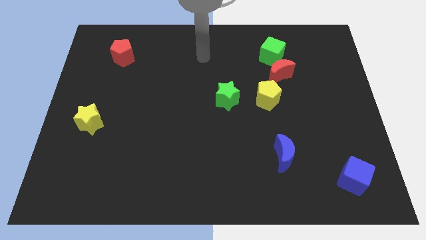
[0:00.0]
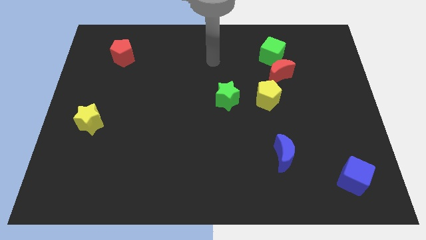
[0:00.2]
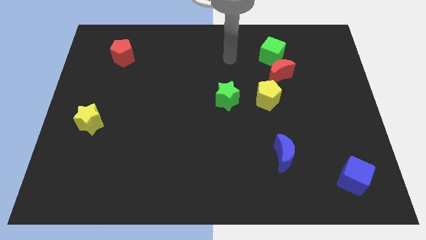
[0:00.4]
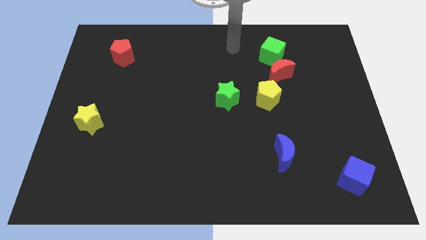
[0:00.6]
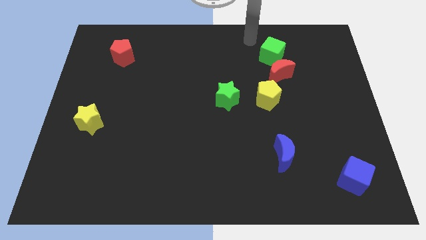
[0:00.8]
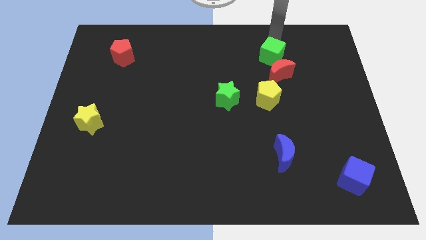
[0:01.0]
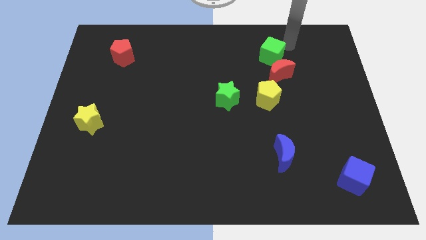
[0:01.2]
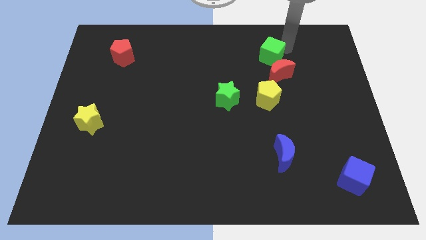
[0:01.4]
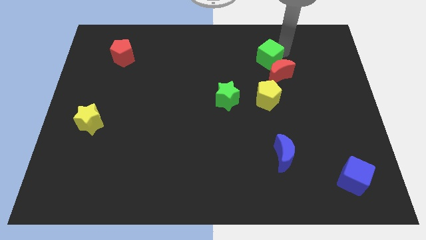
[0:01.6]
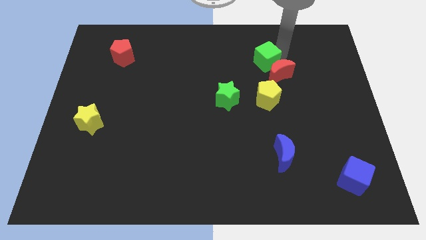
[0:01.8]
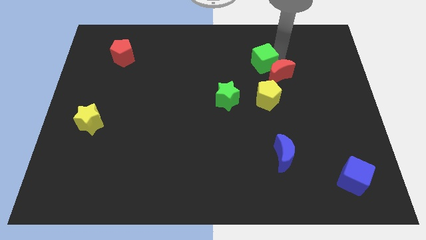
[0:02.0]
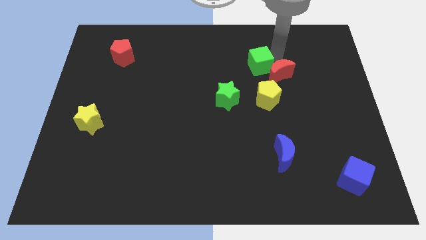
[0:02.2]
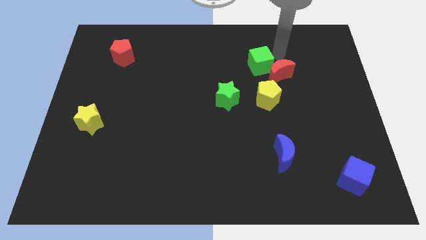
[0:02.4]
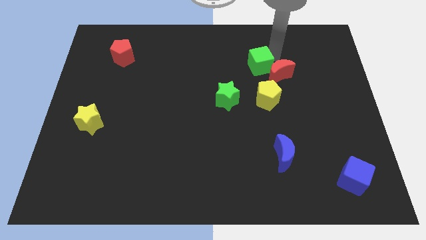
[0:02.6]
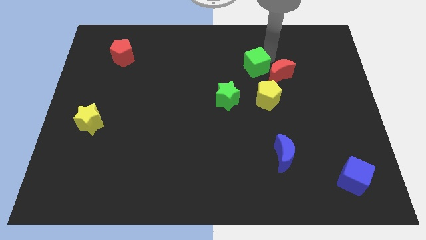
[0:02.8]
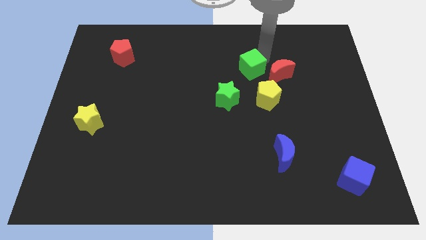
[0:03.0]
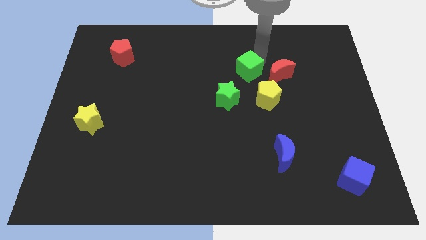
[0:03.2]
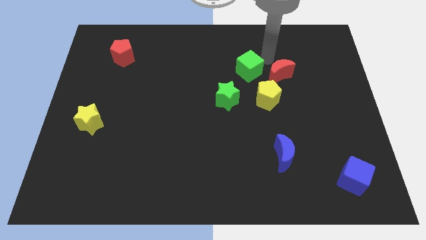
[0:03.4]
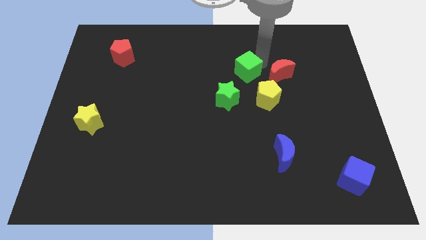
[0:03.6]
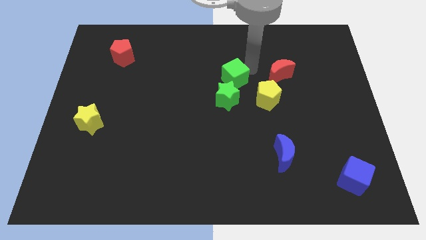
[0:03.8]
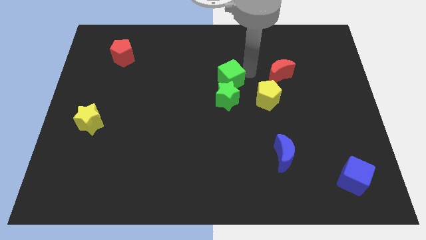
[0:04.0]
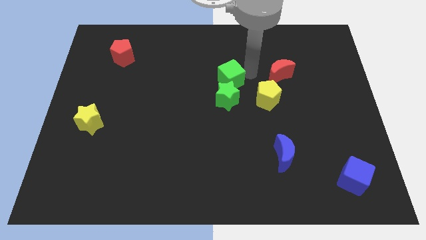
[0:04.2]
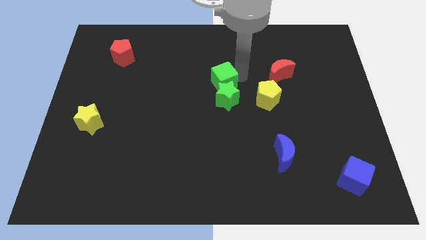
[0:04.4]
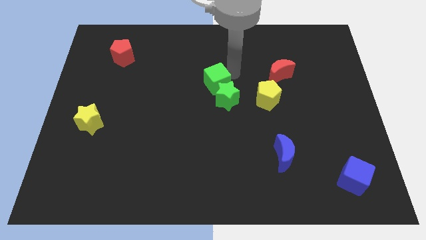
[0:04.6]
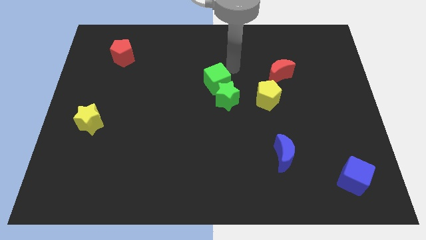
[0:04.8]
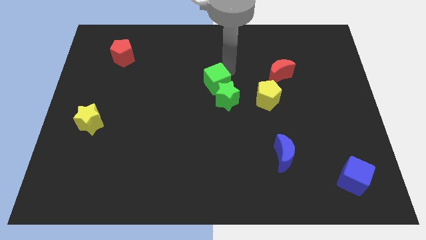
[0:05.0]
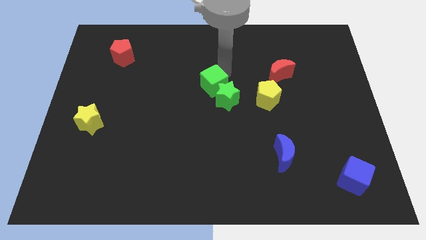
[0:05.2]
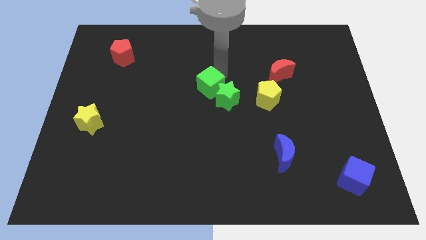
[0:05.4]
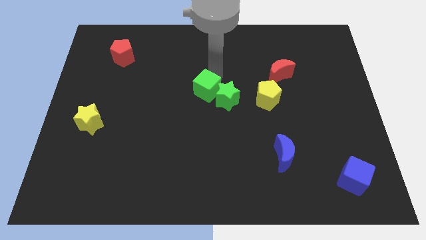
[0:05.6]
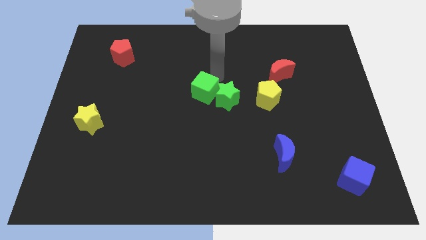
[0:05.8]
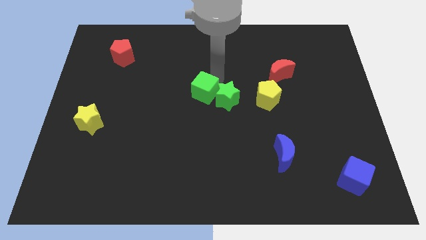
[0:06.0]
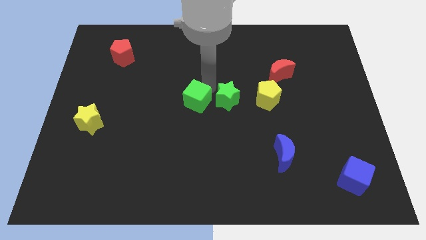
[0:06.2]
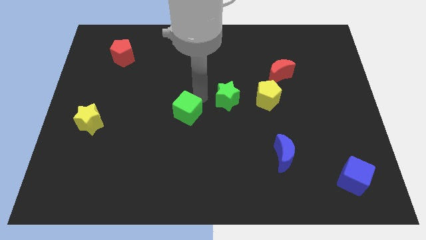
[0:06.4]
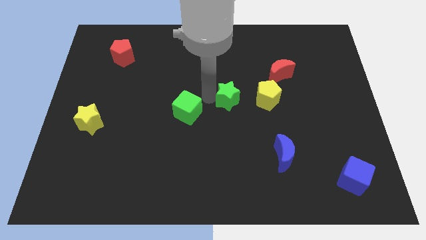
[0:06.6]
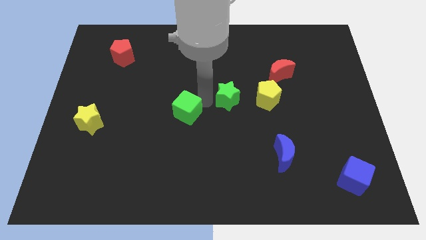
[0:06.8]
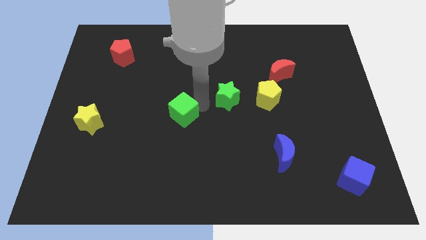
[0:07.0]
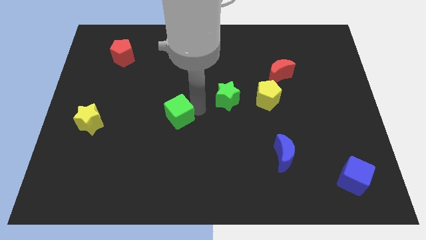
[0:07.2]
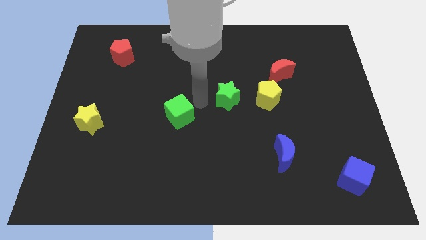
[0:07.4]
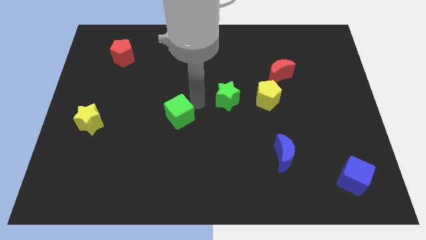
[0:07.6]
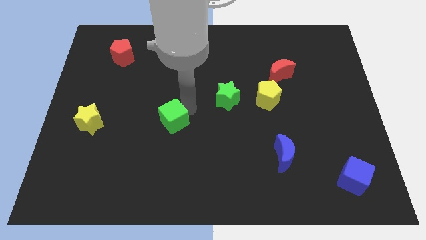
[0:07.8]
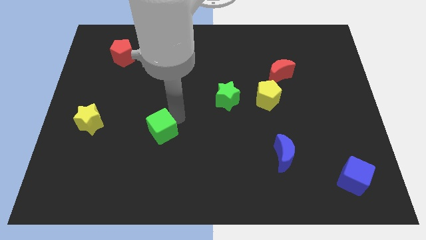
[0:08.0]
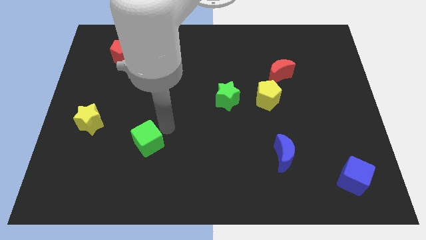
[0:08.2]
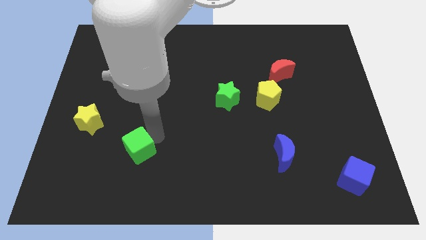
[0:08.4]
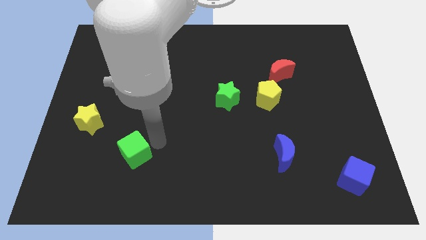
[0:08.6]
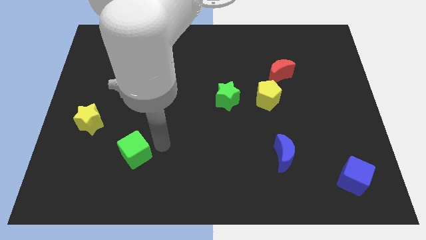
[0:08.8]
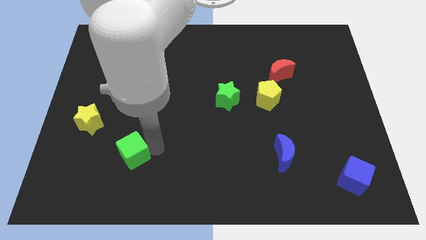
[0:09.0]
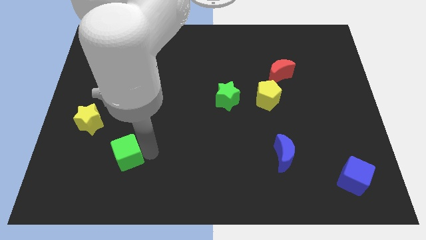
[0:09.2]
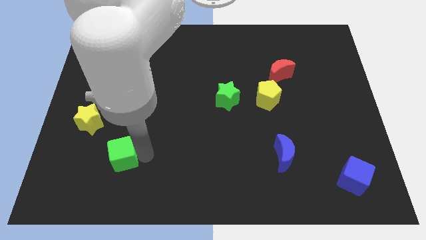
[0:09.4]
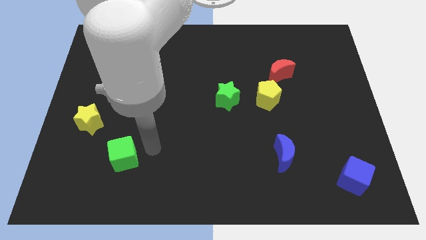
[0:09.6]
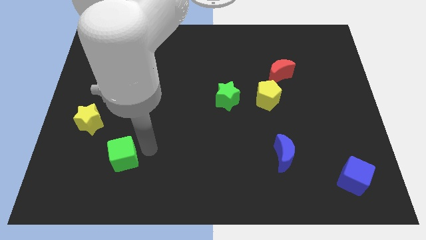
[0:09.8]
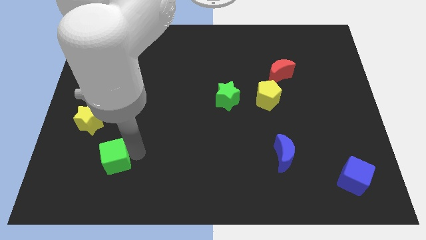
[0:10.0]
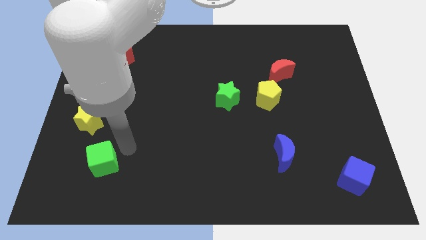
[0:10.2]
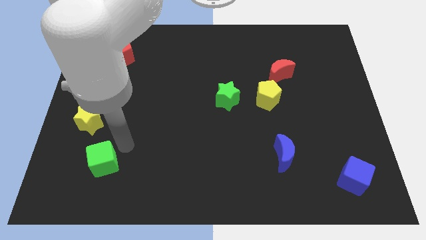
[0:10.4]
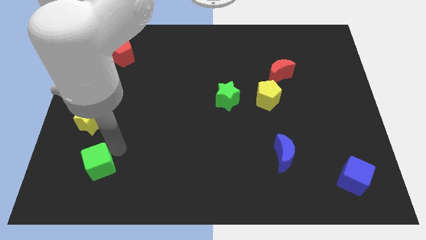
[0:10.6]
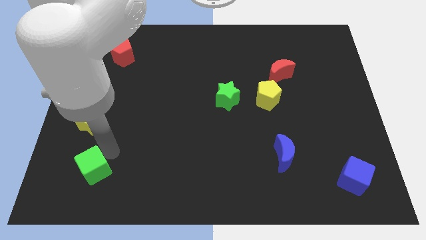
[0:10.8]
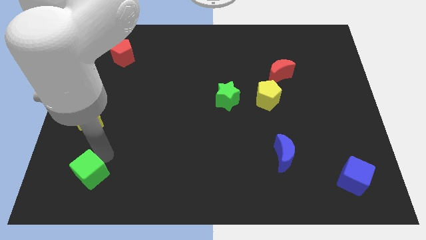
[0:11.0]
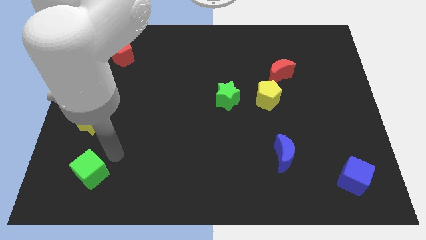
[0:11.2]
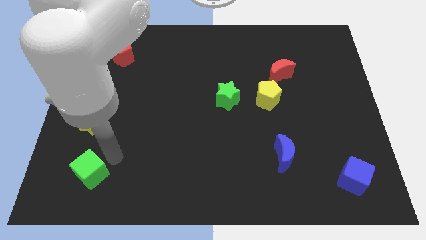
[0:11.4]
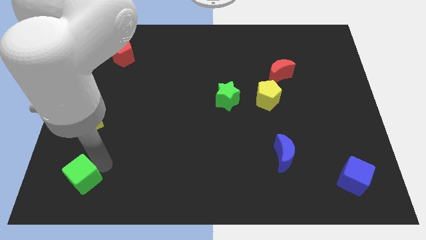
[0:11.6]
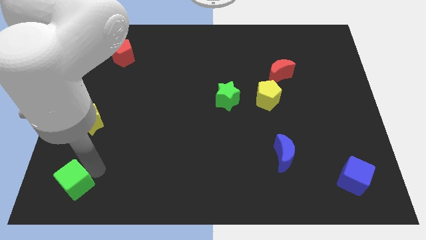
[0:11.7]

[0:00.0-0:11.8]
move the green cube to the bottom left
